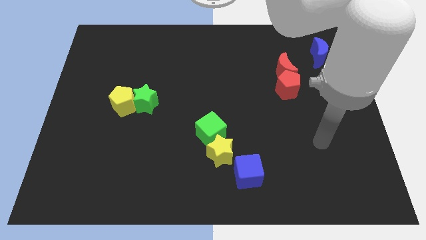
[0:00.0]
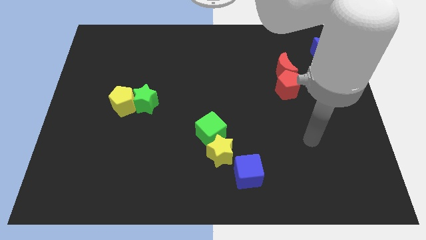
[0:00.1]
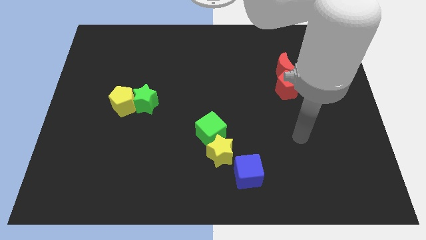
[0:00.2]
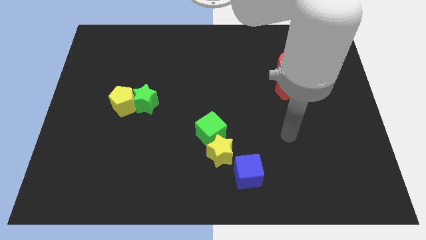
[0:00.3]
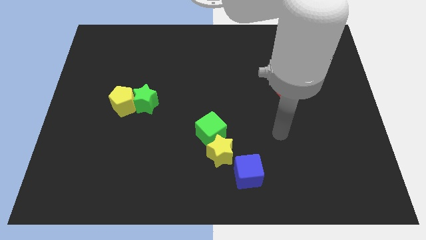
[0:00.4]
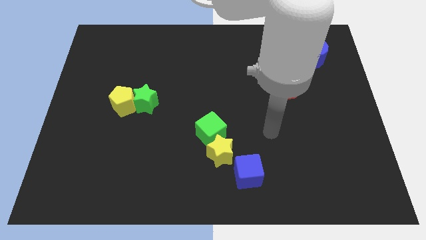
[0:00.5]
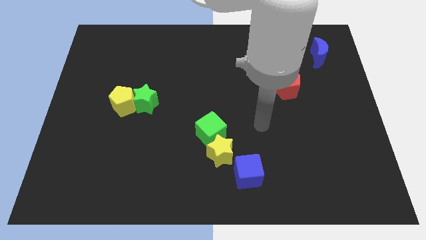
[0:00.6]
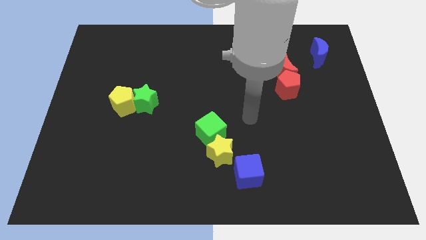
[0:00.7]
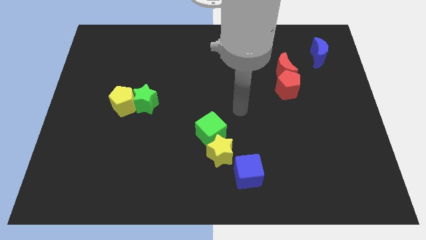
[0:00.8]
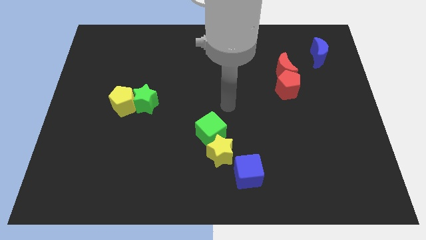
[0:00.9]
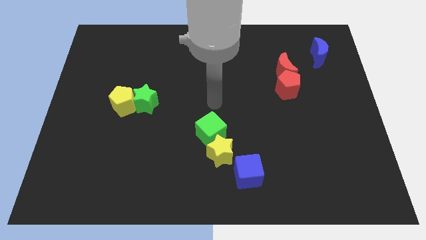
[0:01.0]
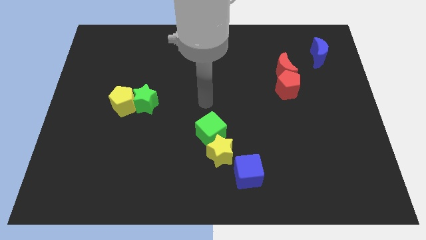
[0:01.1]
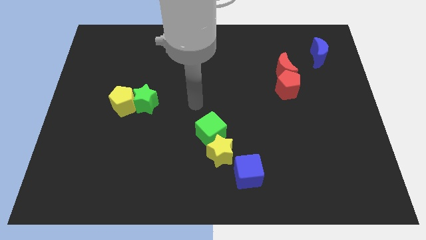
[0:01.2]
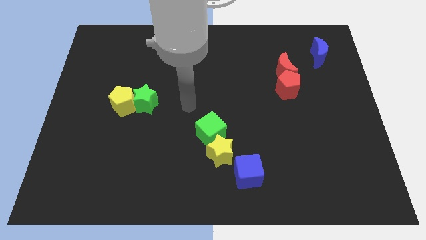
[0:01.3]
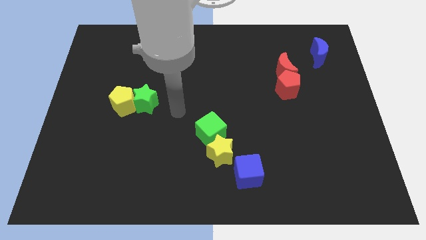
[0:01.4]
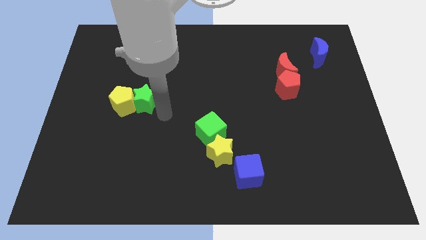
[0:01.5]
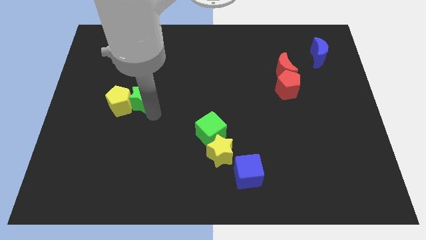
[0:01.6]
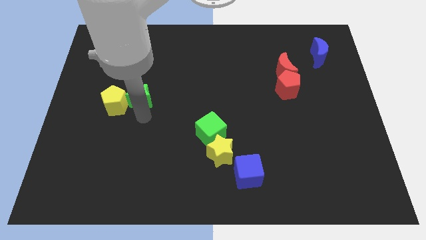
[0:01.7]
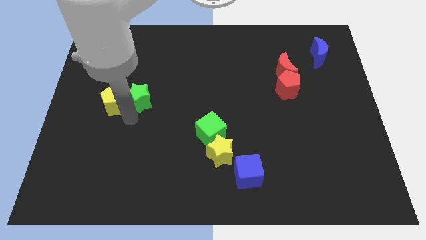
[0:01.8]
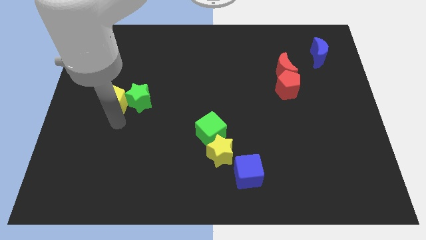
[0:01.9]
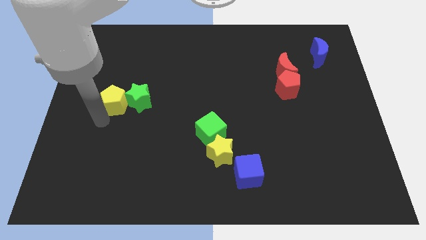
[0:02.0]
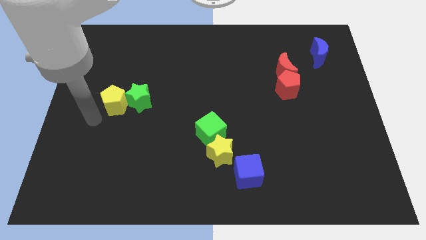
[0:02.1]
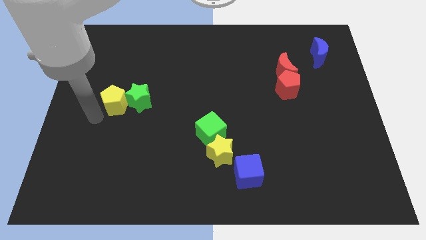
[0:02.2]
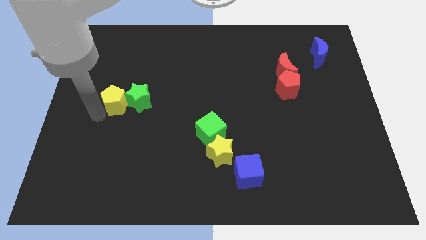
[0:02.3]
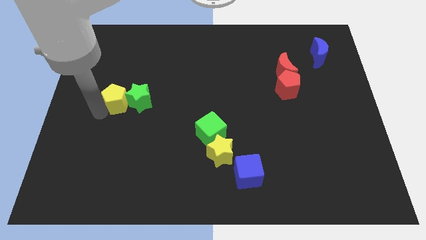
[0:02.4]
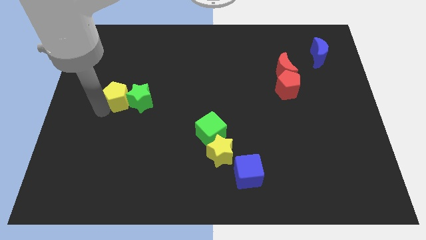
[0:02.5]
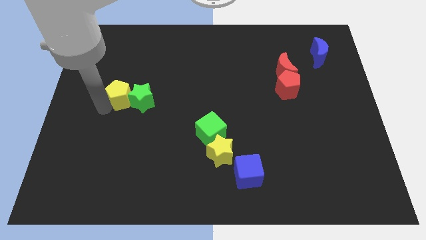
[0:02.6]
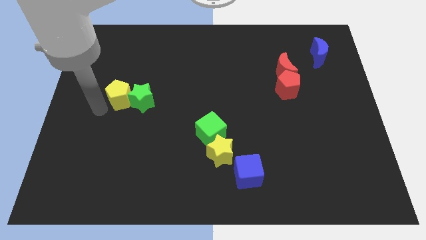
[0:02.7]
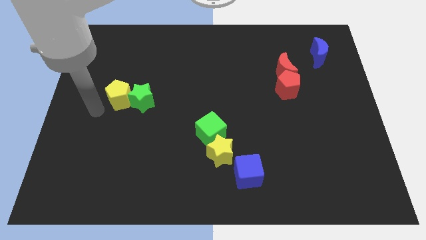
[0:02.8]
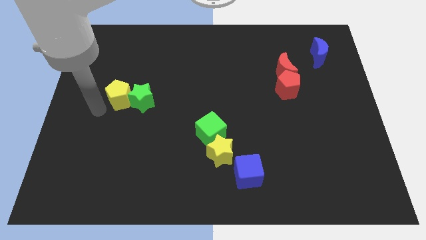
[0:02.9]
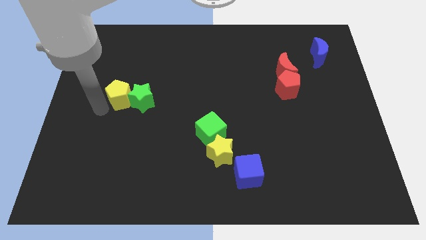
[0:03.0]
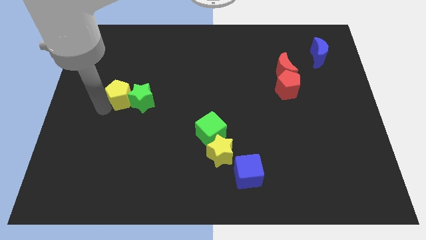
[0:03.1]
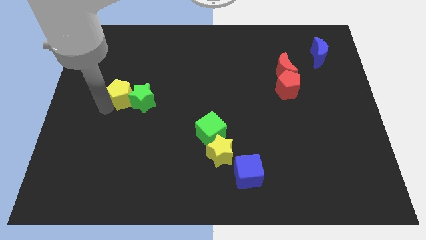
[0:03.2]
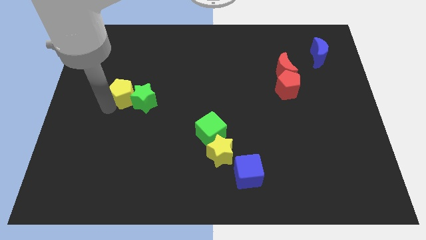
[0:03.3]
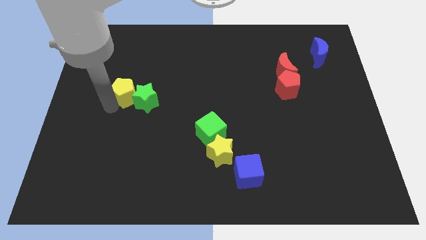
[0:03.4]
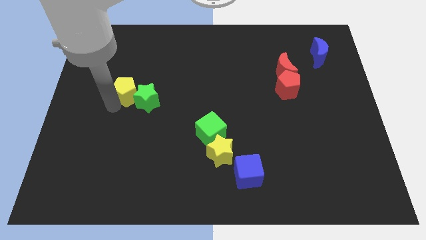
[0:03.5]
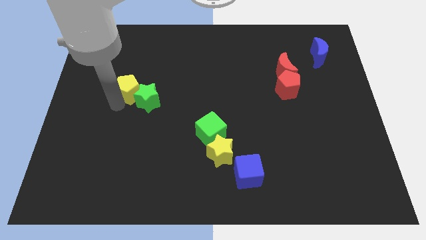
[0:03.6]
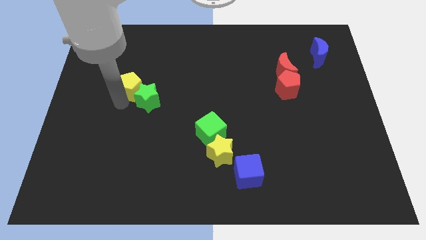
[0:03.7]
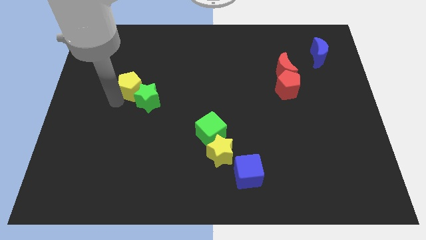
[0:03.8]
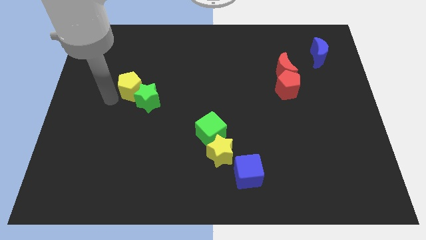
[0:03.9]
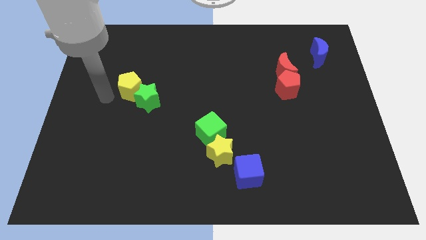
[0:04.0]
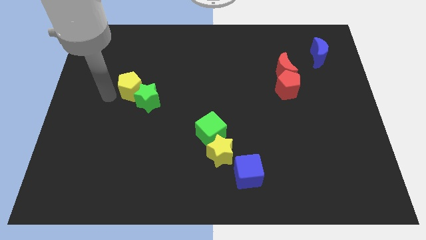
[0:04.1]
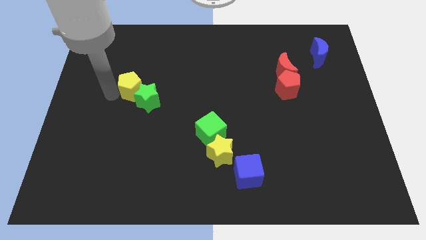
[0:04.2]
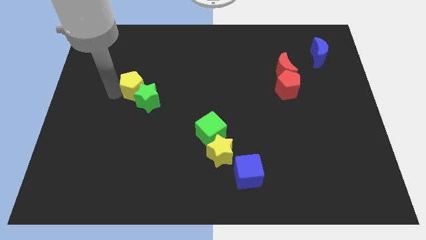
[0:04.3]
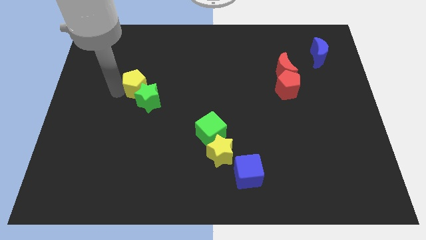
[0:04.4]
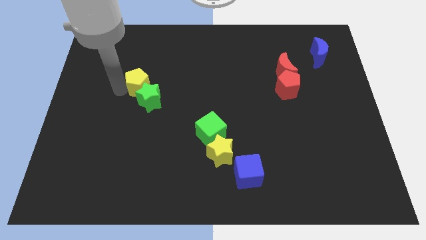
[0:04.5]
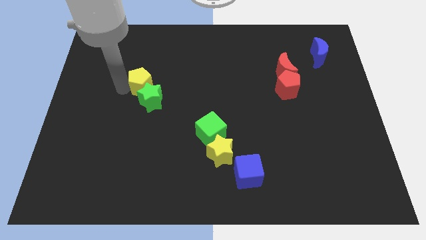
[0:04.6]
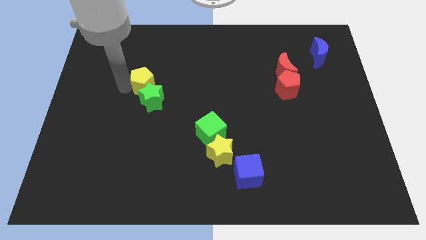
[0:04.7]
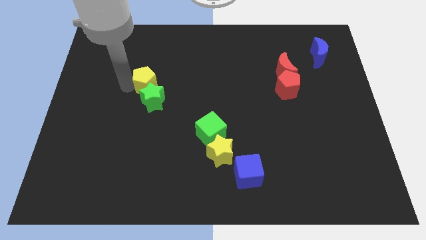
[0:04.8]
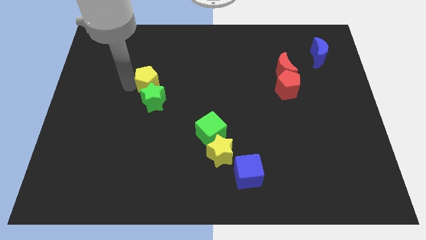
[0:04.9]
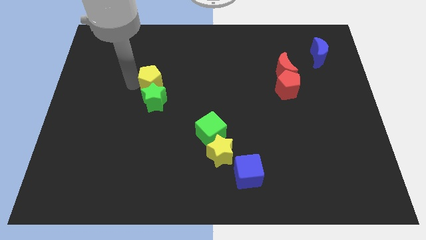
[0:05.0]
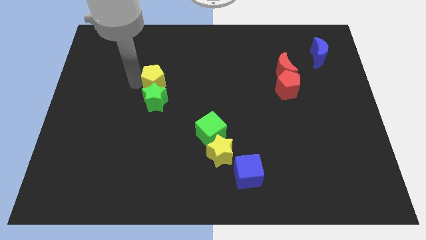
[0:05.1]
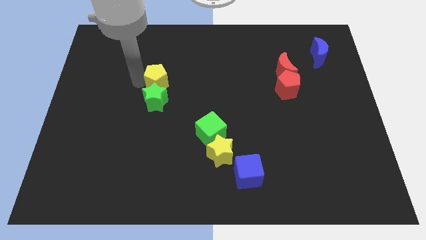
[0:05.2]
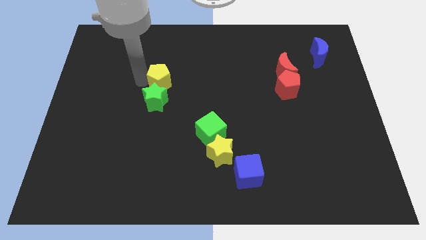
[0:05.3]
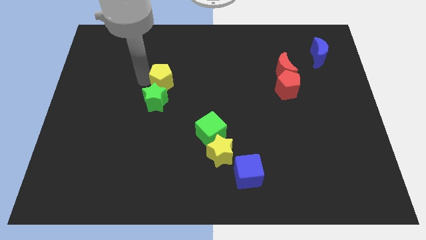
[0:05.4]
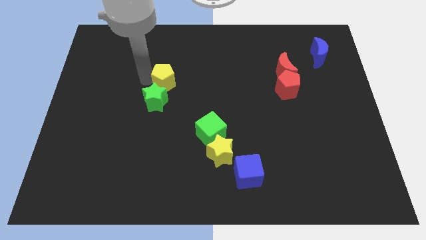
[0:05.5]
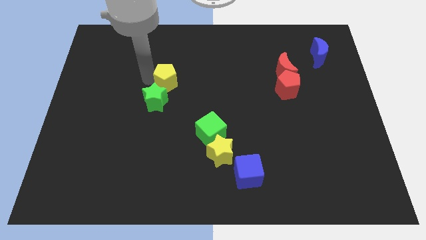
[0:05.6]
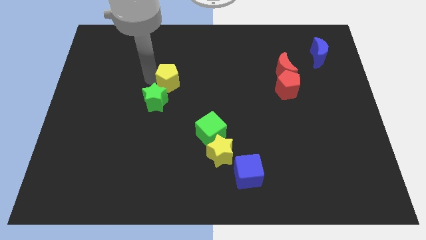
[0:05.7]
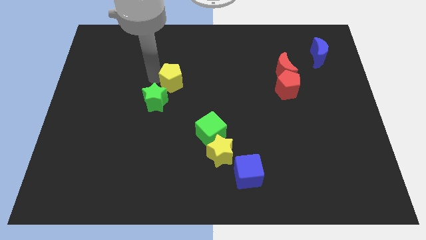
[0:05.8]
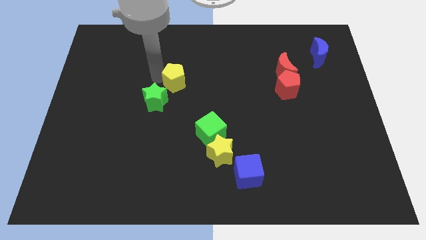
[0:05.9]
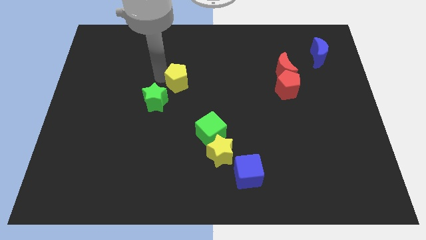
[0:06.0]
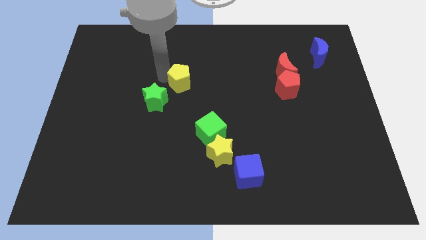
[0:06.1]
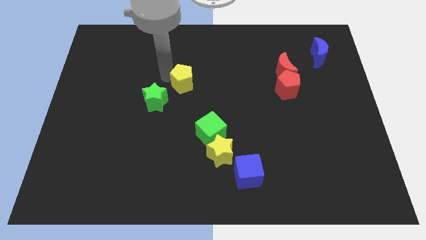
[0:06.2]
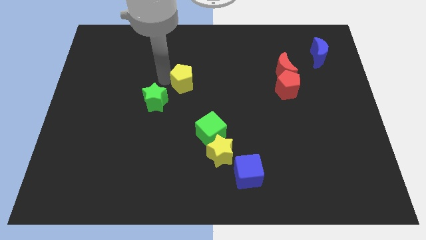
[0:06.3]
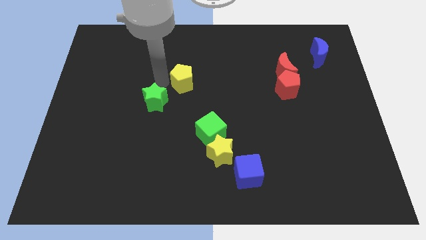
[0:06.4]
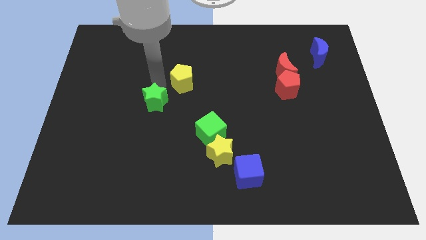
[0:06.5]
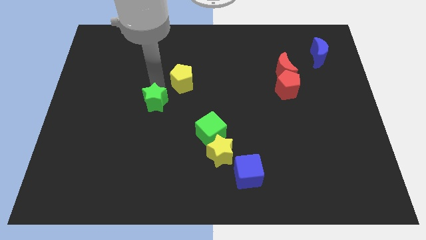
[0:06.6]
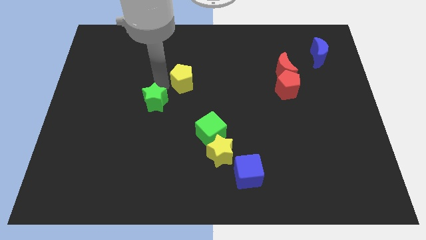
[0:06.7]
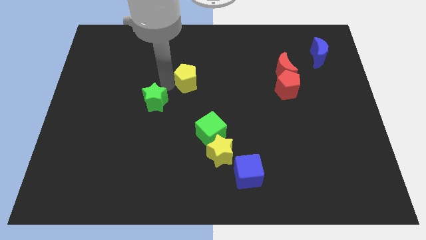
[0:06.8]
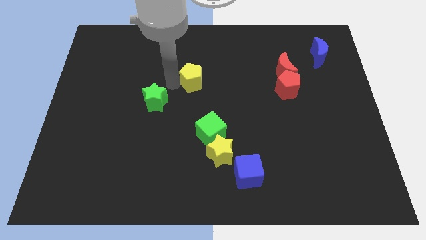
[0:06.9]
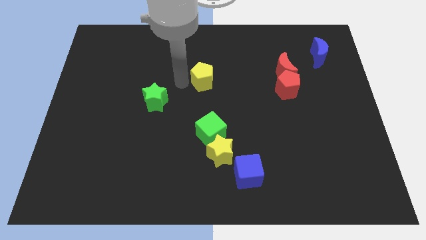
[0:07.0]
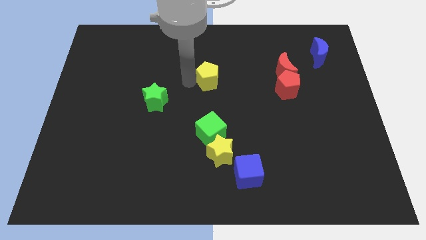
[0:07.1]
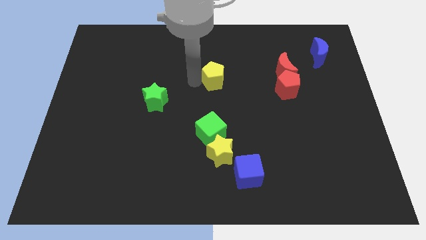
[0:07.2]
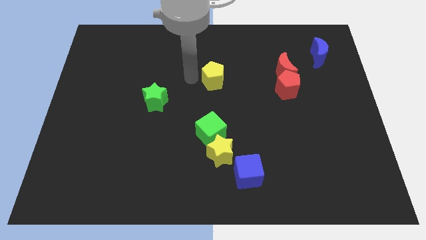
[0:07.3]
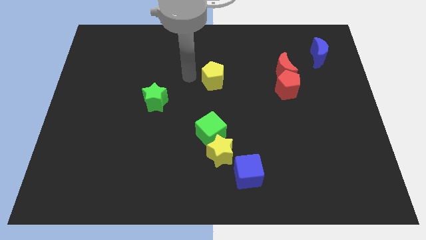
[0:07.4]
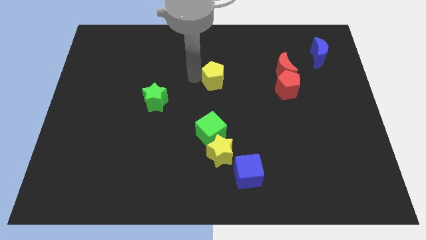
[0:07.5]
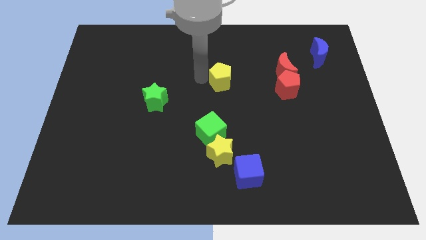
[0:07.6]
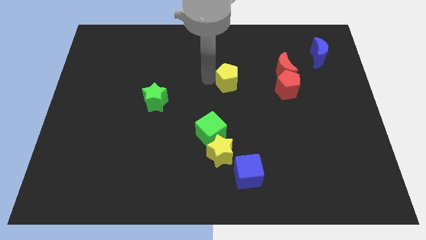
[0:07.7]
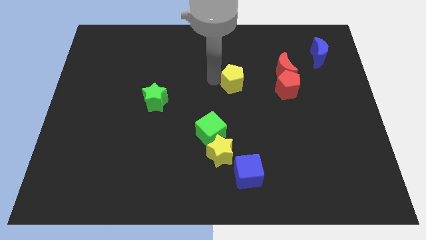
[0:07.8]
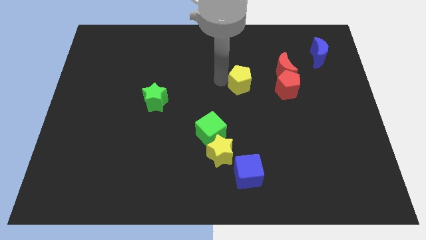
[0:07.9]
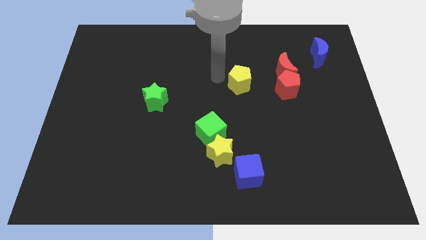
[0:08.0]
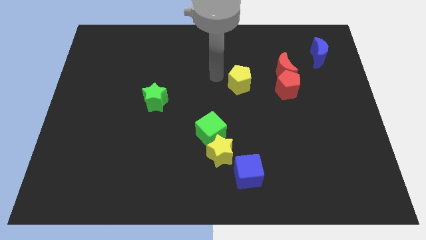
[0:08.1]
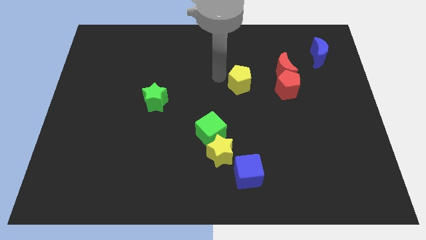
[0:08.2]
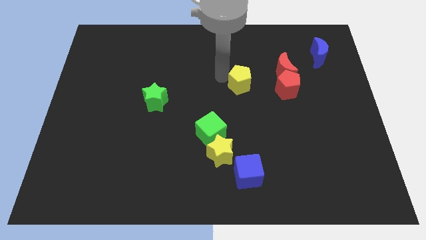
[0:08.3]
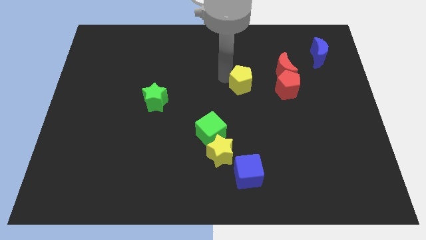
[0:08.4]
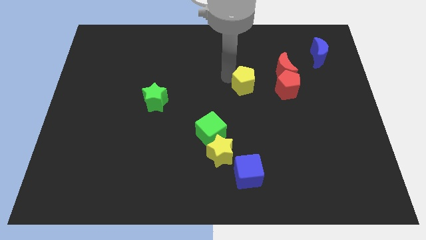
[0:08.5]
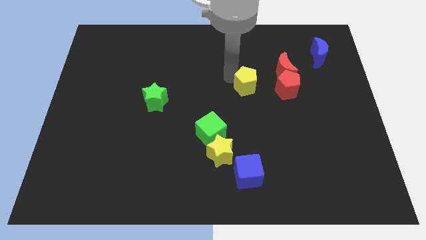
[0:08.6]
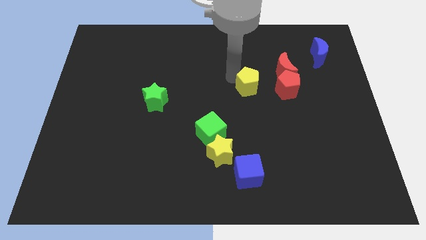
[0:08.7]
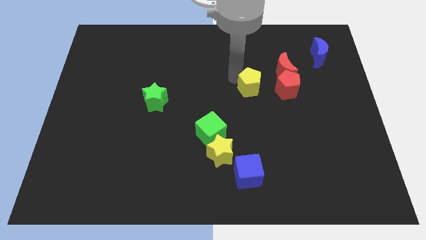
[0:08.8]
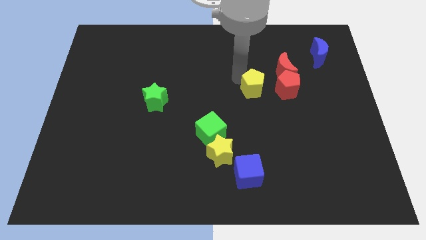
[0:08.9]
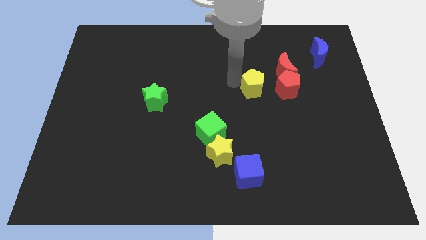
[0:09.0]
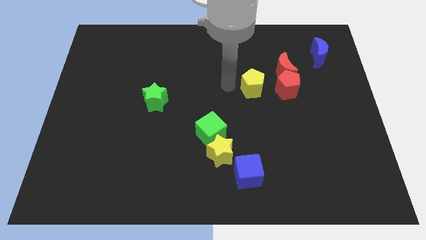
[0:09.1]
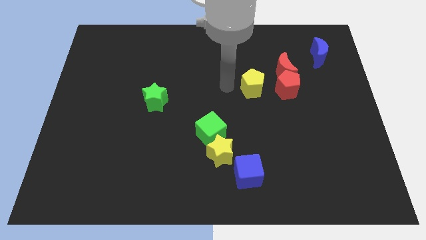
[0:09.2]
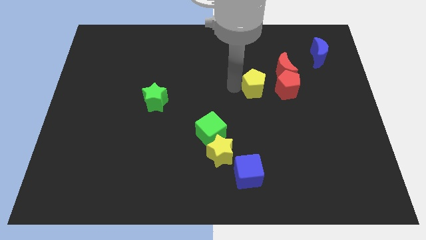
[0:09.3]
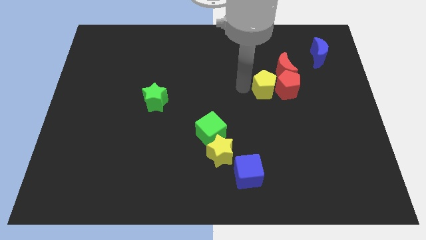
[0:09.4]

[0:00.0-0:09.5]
push the yellow pentagon to the red pentagon
